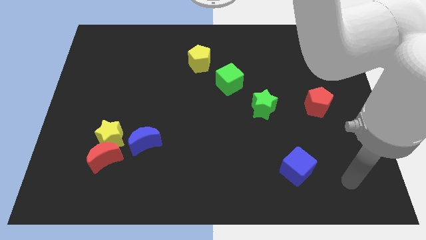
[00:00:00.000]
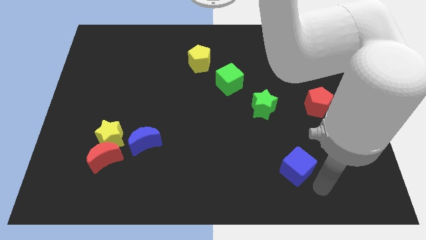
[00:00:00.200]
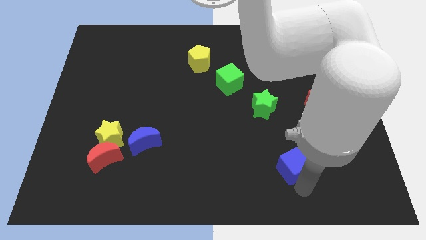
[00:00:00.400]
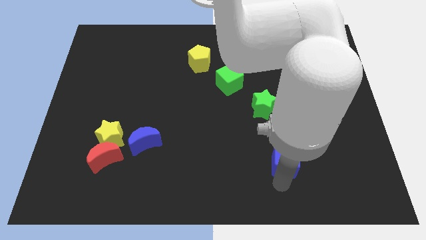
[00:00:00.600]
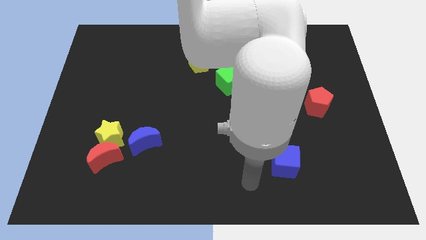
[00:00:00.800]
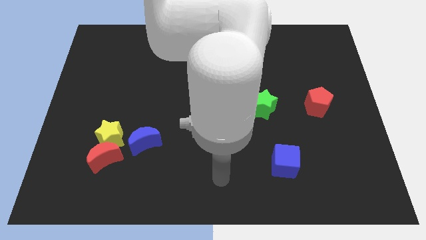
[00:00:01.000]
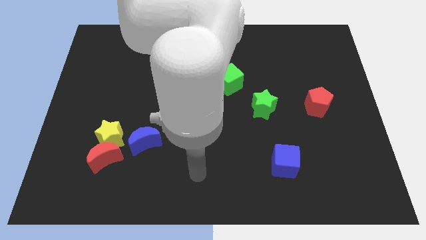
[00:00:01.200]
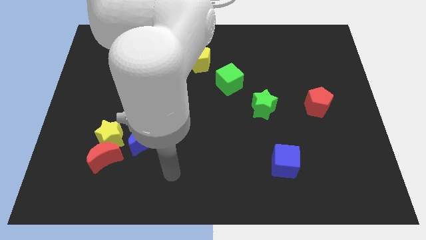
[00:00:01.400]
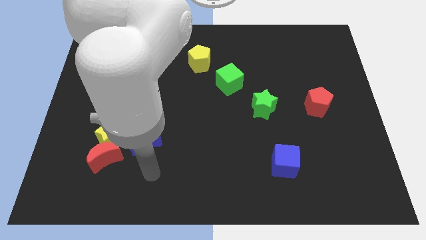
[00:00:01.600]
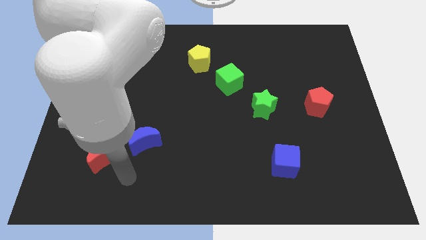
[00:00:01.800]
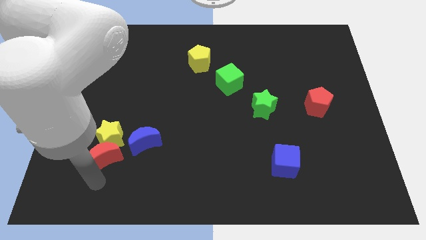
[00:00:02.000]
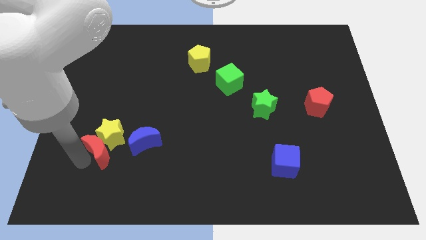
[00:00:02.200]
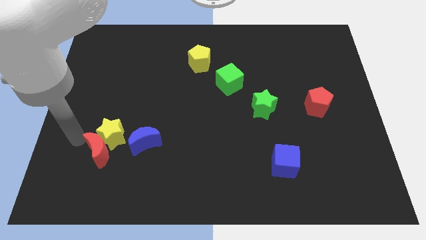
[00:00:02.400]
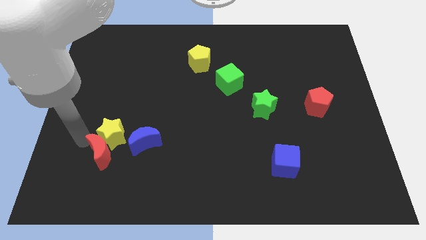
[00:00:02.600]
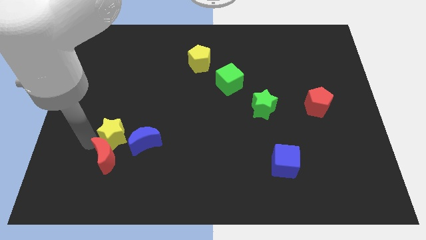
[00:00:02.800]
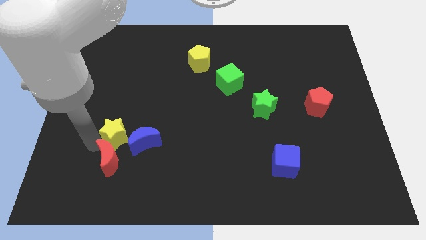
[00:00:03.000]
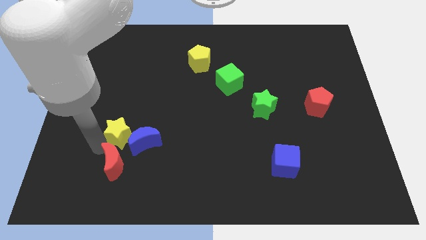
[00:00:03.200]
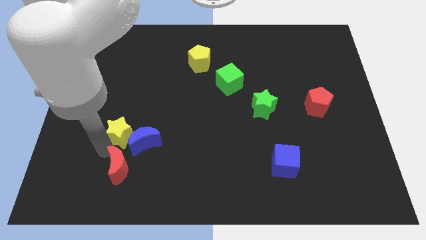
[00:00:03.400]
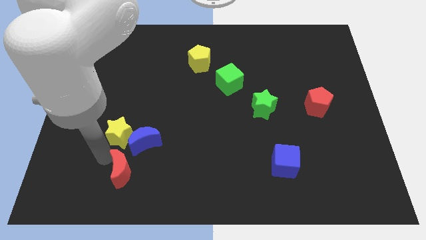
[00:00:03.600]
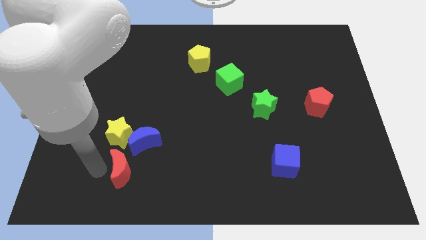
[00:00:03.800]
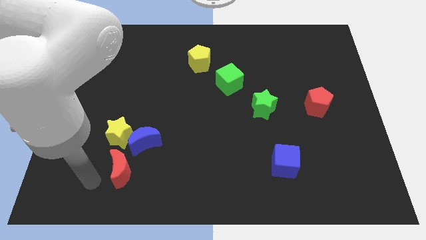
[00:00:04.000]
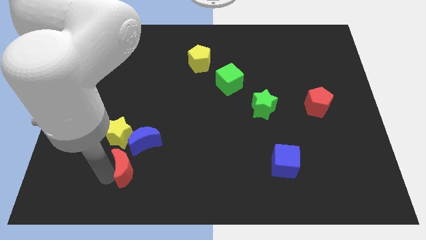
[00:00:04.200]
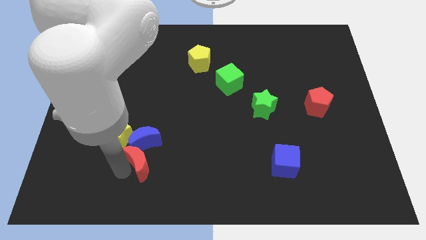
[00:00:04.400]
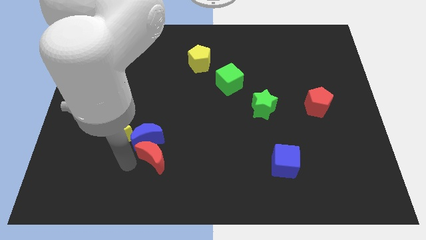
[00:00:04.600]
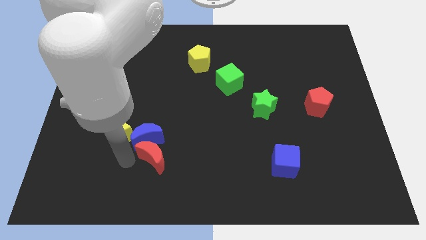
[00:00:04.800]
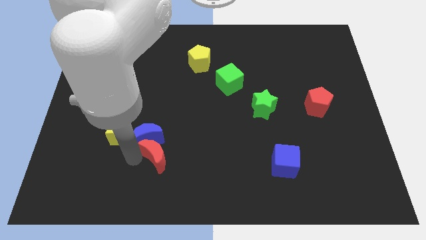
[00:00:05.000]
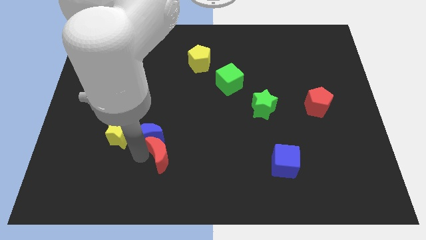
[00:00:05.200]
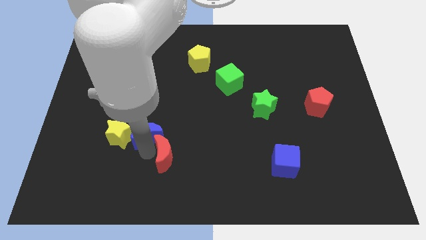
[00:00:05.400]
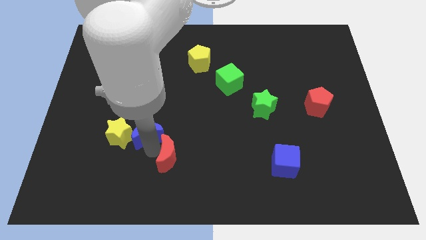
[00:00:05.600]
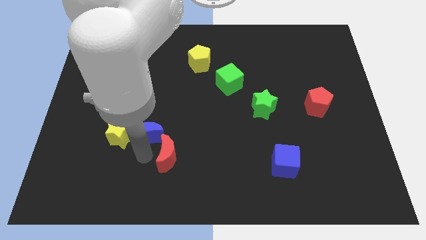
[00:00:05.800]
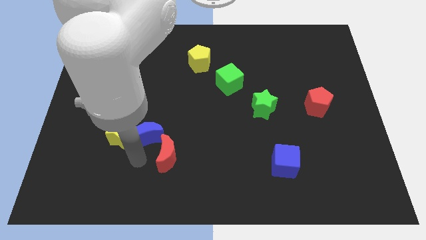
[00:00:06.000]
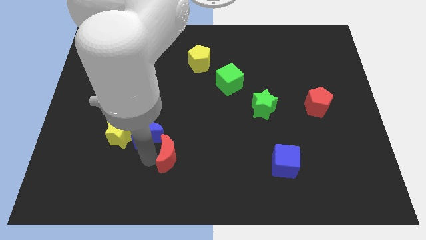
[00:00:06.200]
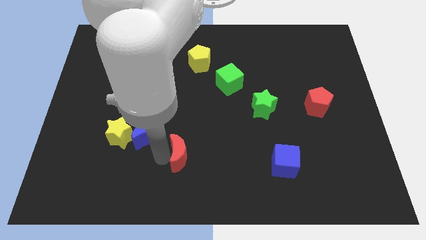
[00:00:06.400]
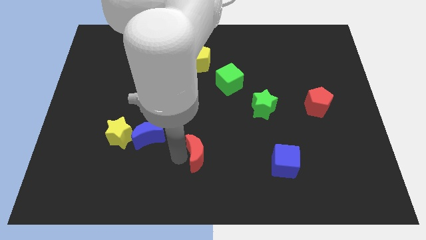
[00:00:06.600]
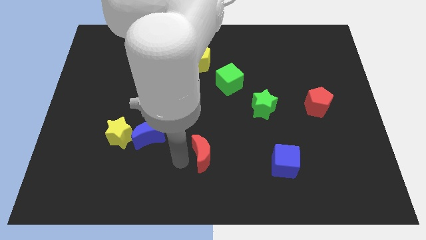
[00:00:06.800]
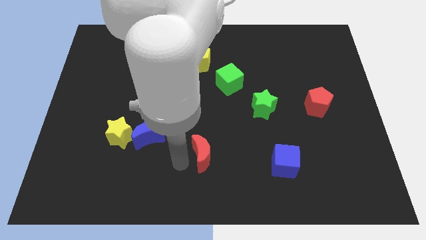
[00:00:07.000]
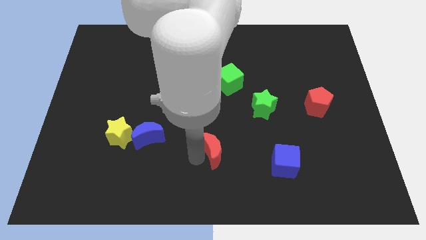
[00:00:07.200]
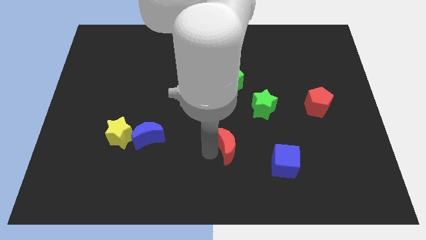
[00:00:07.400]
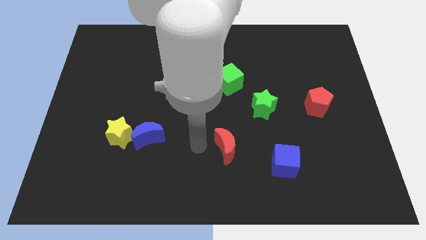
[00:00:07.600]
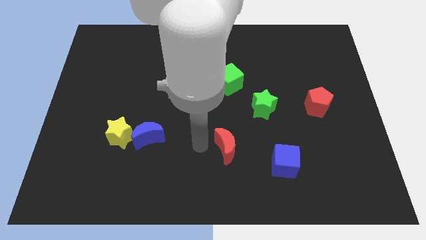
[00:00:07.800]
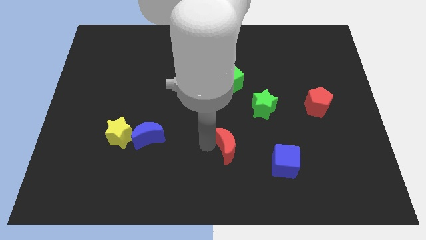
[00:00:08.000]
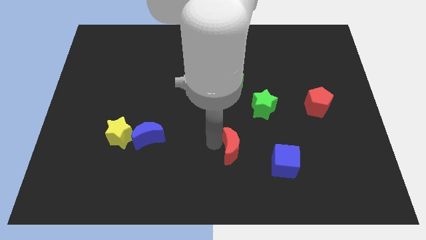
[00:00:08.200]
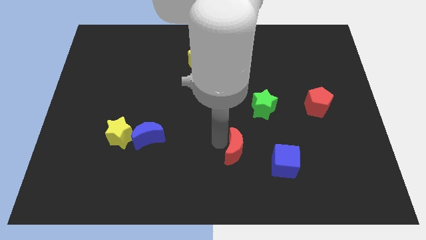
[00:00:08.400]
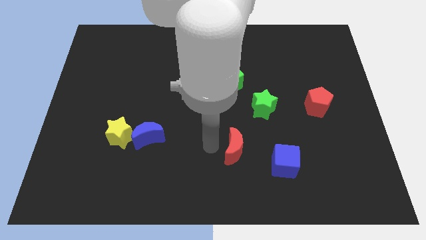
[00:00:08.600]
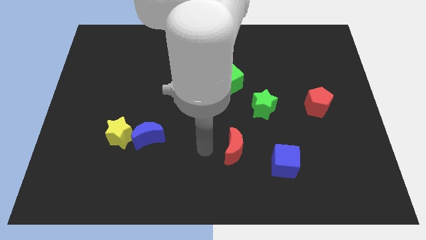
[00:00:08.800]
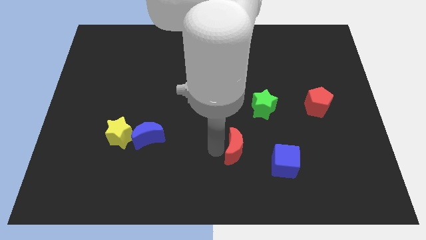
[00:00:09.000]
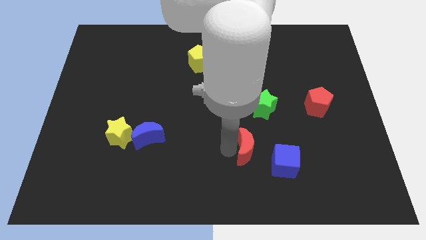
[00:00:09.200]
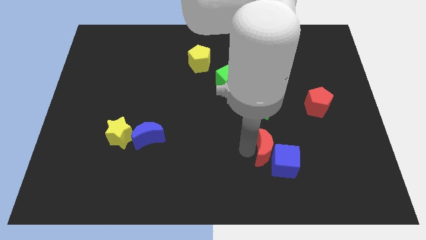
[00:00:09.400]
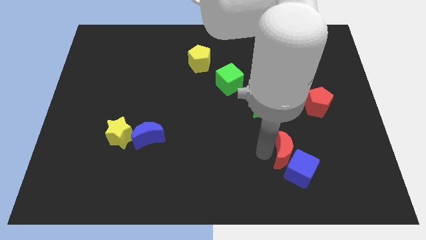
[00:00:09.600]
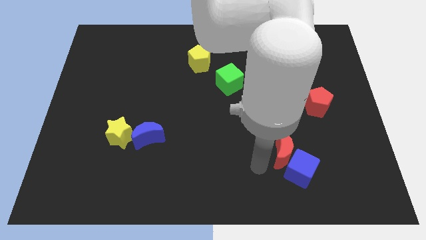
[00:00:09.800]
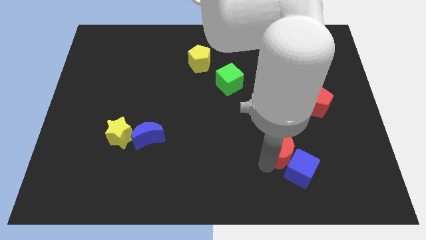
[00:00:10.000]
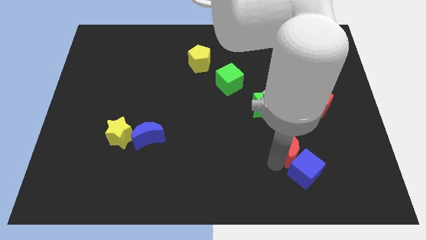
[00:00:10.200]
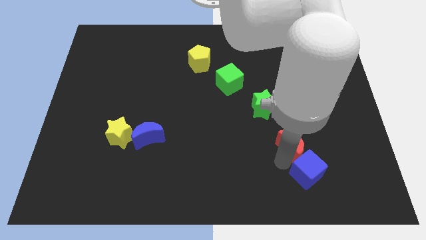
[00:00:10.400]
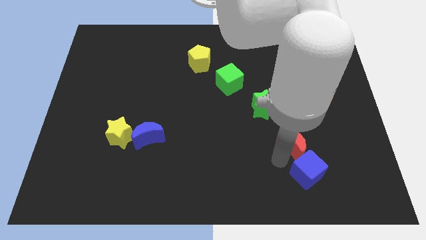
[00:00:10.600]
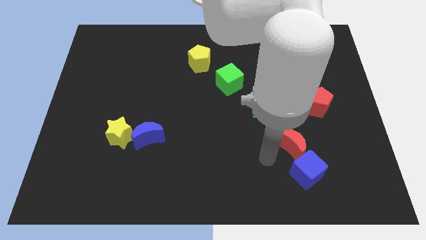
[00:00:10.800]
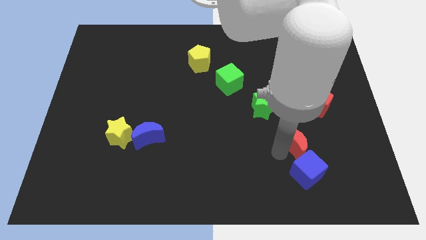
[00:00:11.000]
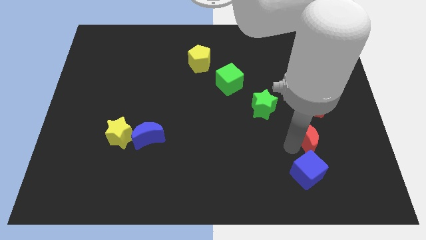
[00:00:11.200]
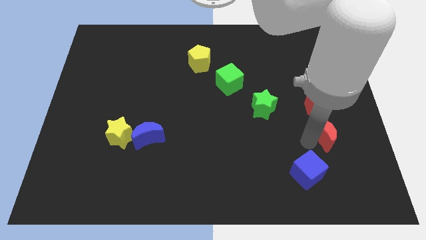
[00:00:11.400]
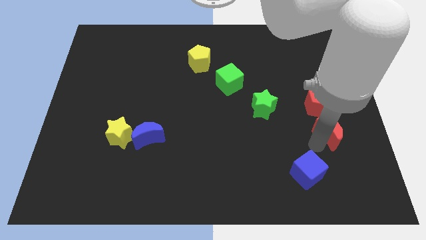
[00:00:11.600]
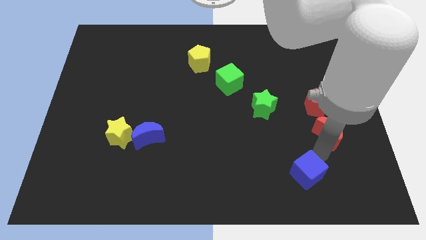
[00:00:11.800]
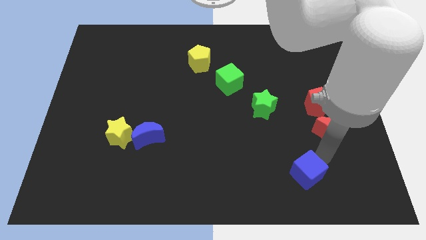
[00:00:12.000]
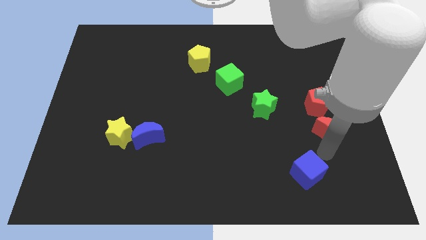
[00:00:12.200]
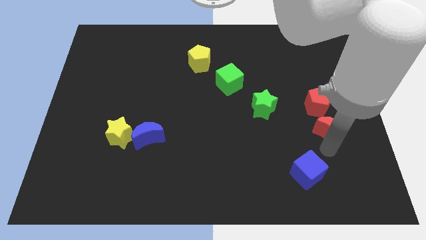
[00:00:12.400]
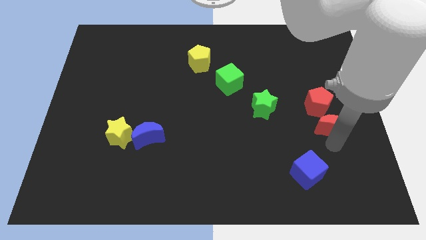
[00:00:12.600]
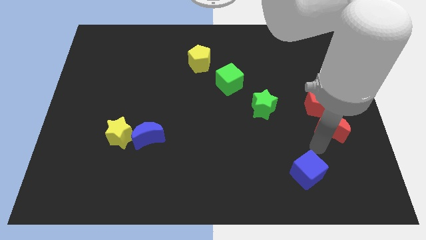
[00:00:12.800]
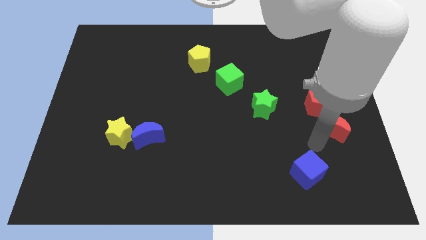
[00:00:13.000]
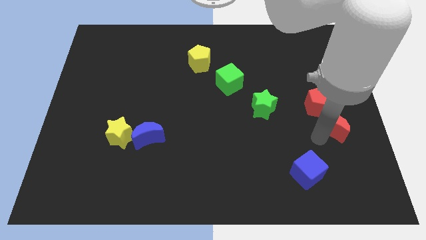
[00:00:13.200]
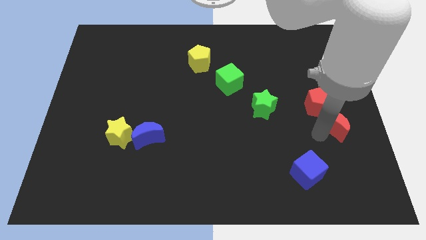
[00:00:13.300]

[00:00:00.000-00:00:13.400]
push the red moon to the right side of the board
